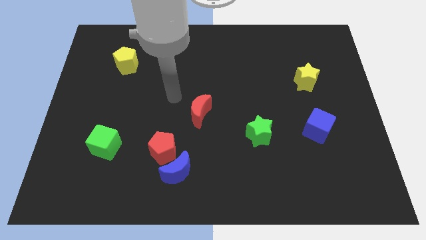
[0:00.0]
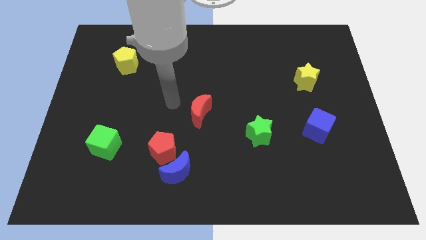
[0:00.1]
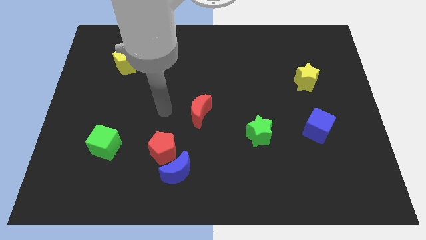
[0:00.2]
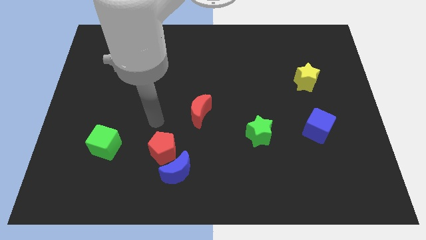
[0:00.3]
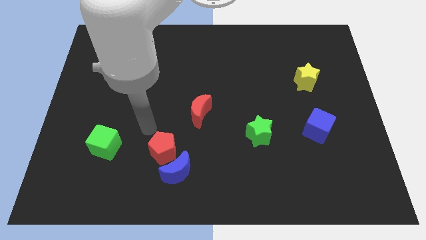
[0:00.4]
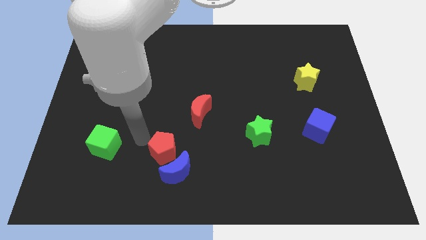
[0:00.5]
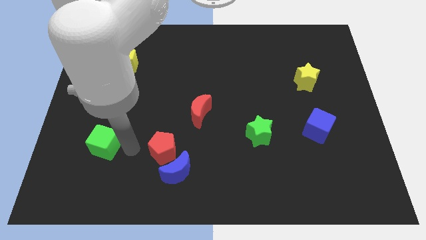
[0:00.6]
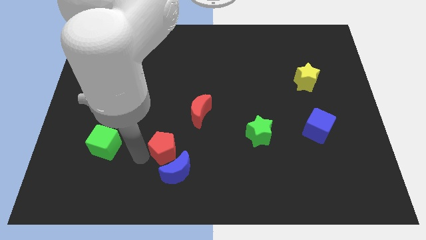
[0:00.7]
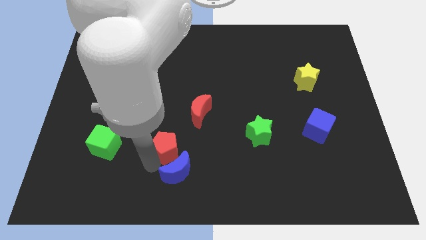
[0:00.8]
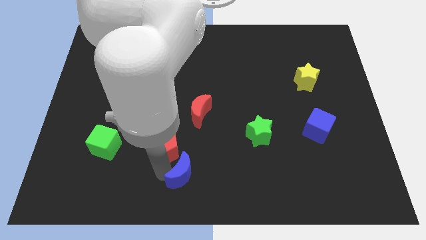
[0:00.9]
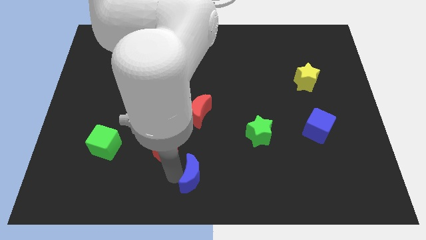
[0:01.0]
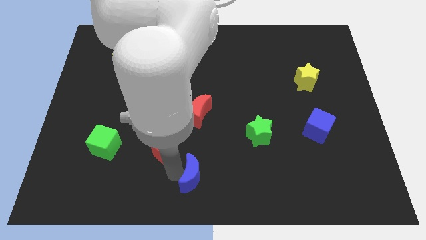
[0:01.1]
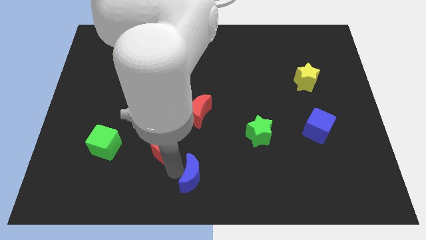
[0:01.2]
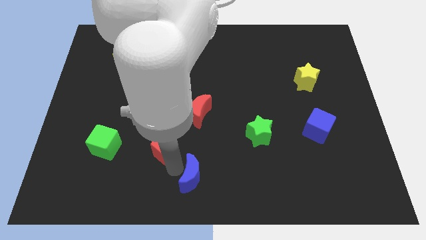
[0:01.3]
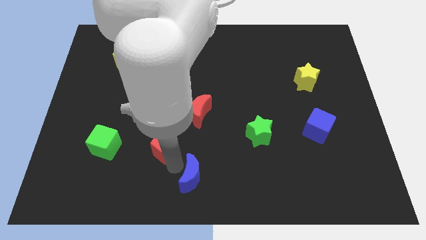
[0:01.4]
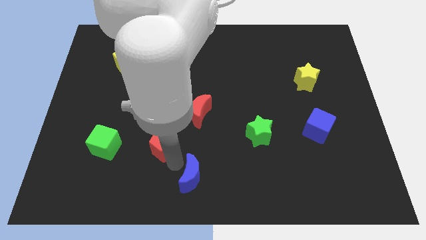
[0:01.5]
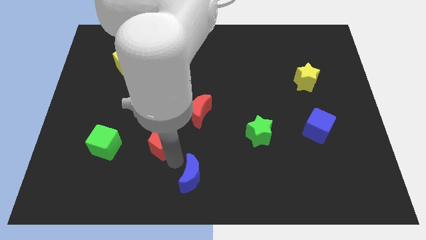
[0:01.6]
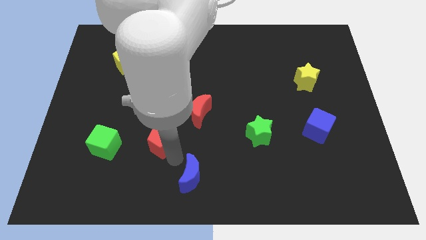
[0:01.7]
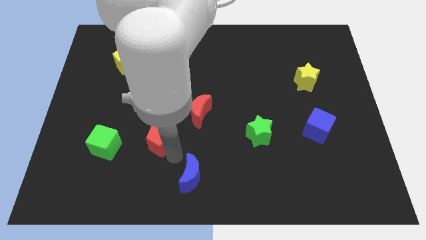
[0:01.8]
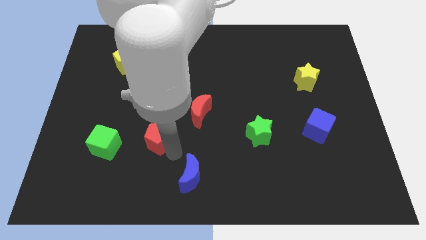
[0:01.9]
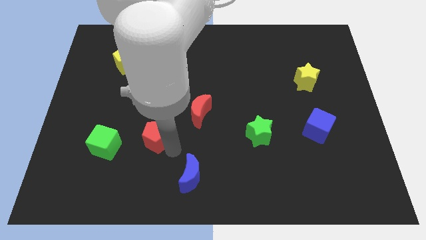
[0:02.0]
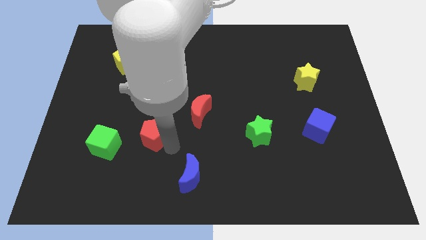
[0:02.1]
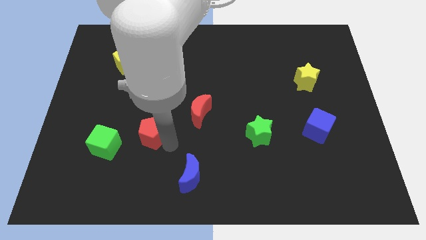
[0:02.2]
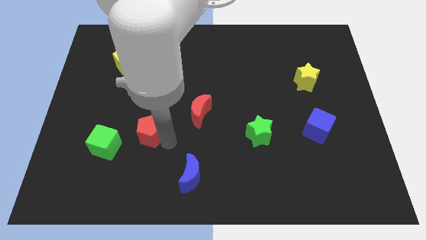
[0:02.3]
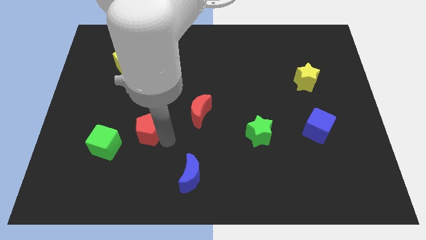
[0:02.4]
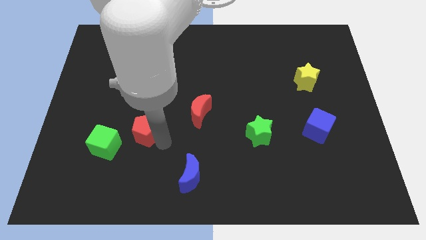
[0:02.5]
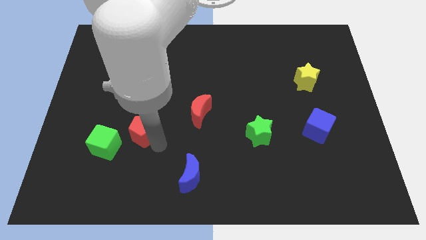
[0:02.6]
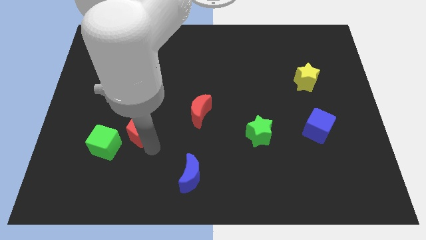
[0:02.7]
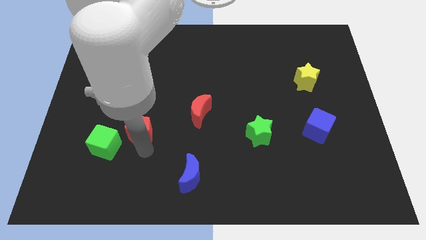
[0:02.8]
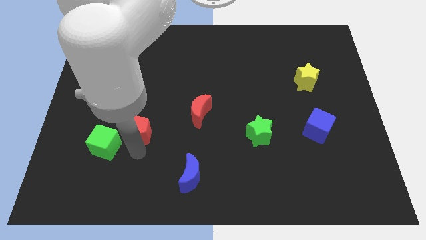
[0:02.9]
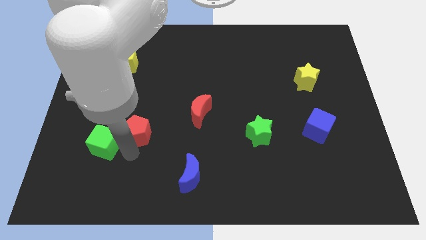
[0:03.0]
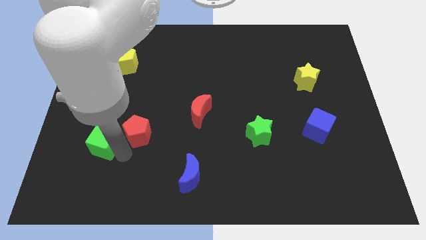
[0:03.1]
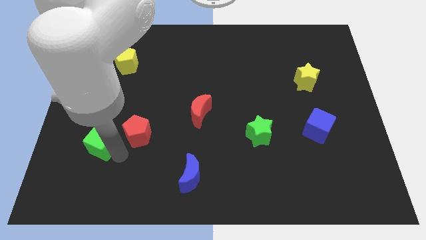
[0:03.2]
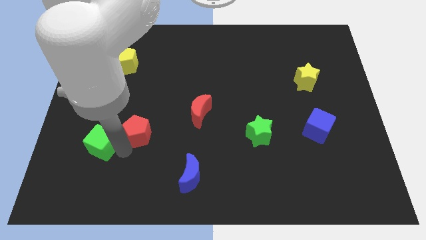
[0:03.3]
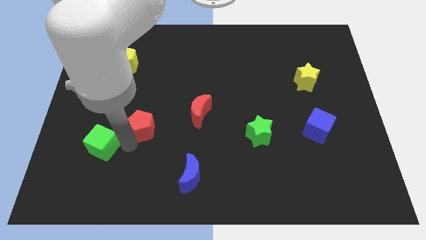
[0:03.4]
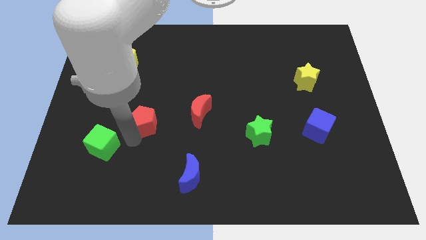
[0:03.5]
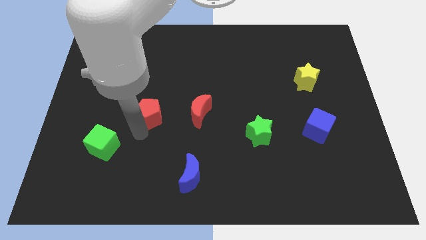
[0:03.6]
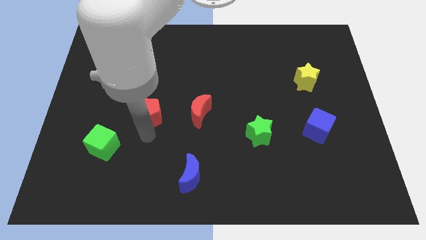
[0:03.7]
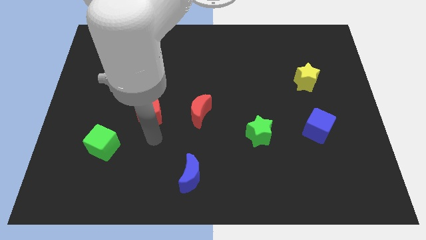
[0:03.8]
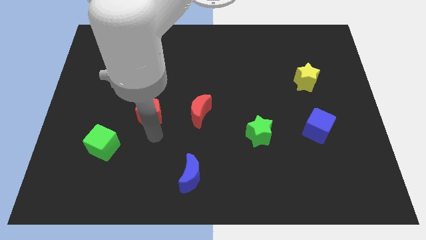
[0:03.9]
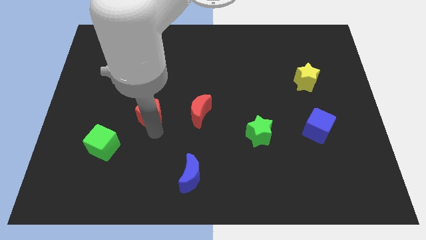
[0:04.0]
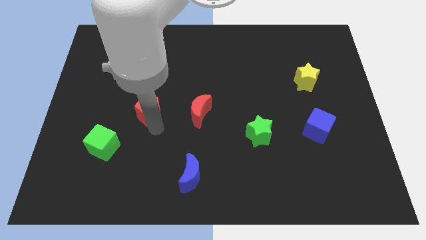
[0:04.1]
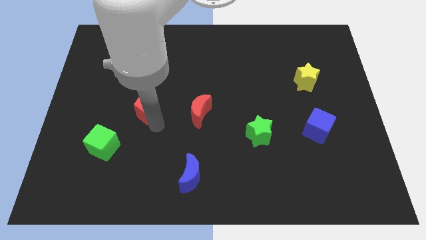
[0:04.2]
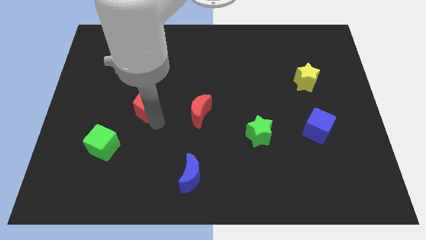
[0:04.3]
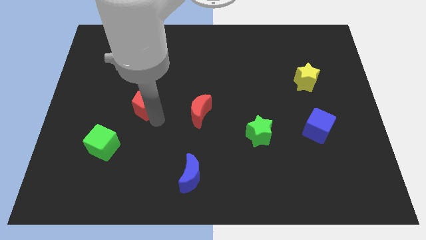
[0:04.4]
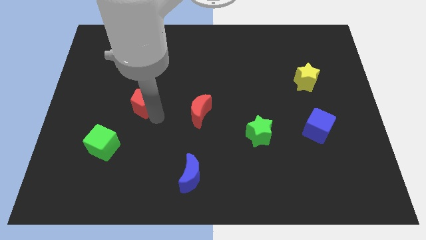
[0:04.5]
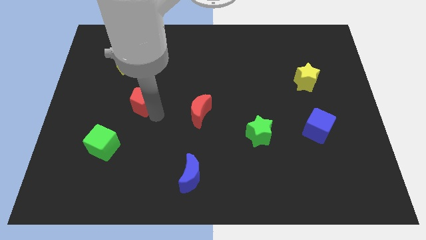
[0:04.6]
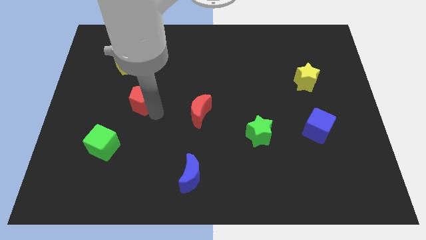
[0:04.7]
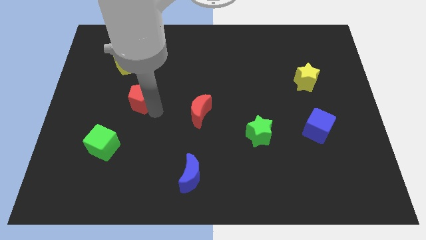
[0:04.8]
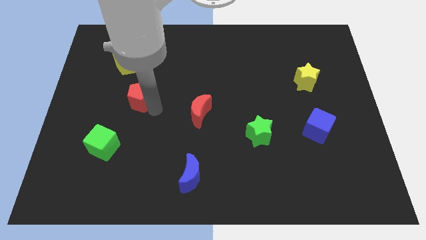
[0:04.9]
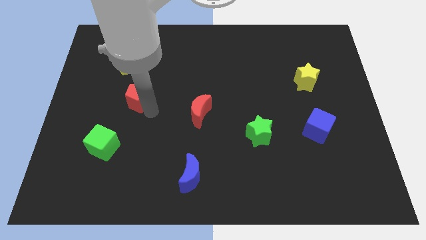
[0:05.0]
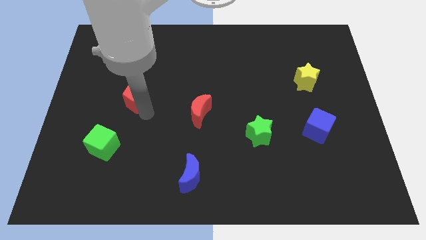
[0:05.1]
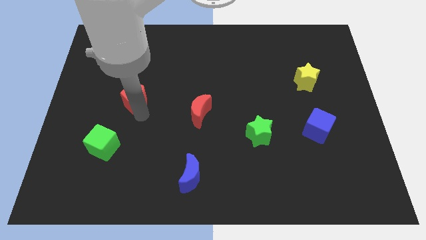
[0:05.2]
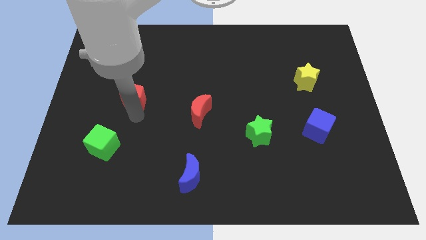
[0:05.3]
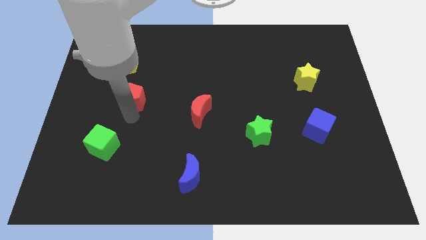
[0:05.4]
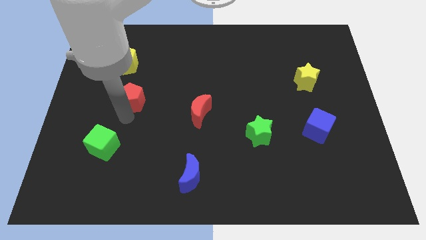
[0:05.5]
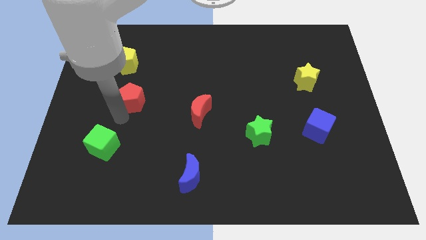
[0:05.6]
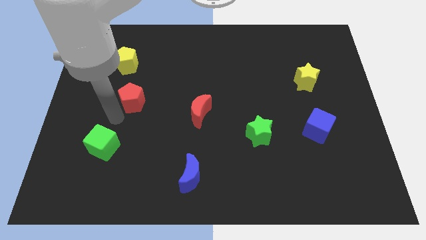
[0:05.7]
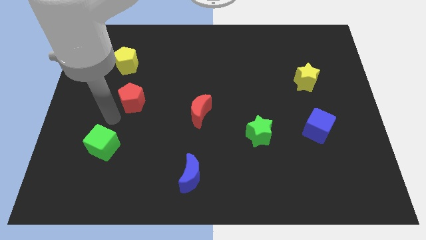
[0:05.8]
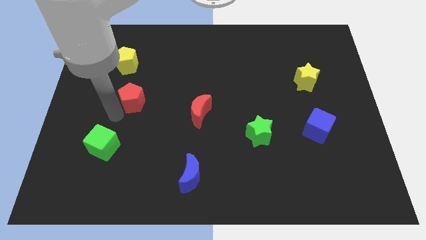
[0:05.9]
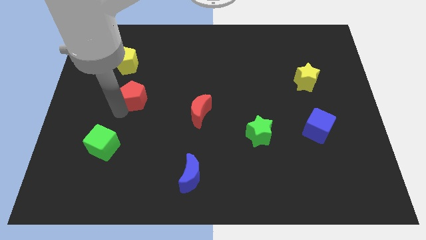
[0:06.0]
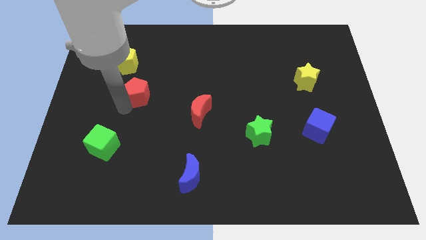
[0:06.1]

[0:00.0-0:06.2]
push the red pentagon to the bottom right side of the yellow pentagon

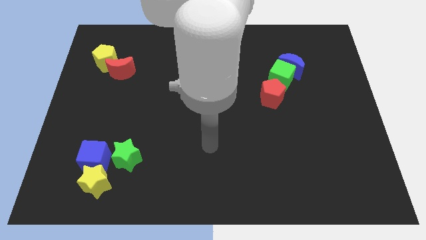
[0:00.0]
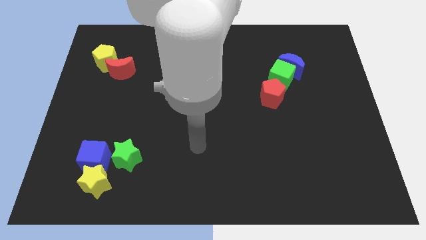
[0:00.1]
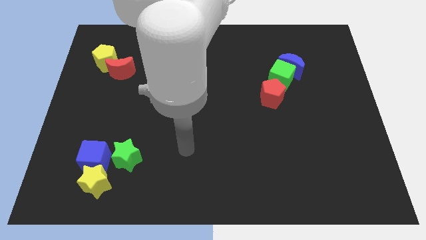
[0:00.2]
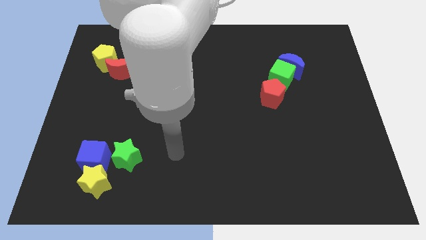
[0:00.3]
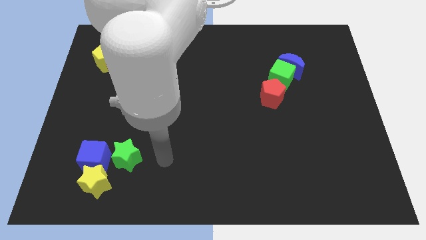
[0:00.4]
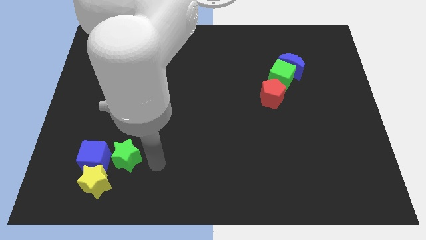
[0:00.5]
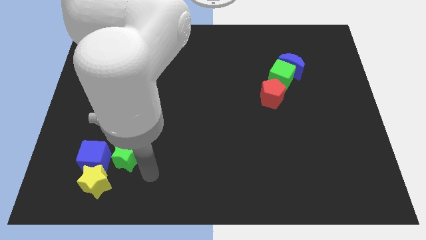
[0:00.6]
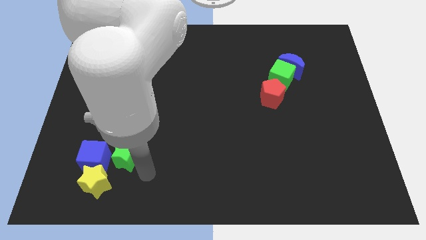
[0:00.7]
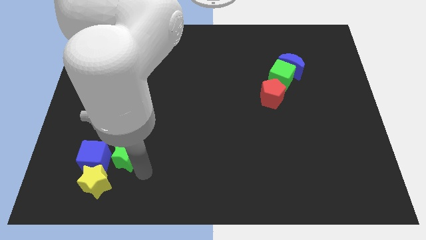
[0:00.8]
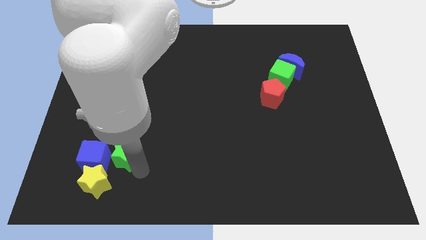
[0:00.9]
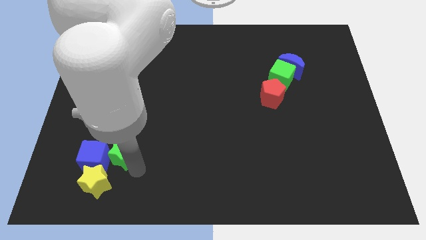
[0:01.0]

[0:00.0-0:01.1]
push the green star to the top side of the yellow star
